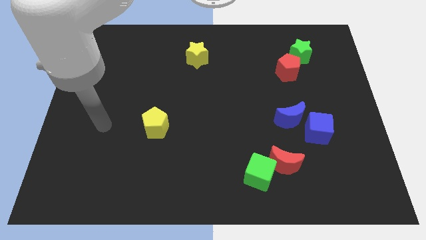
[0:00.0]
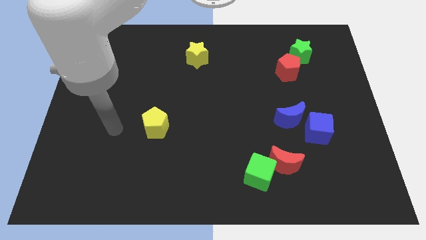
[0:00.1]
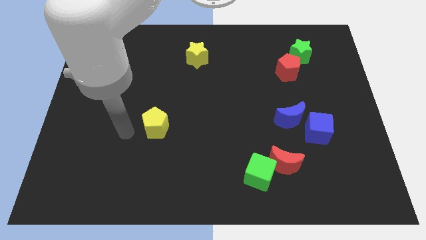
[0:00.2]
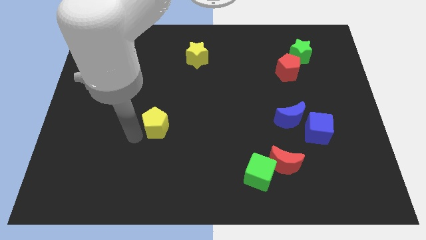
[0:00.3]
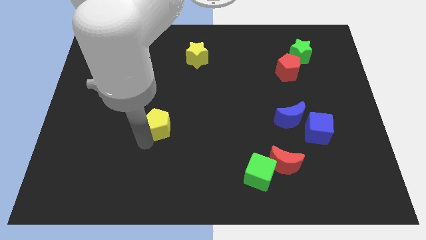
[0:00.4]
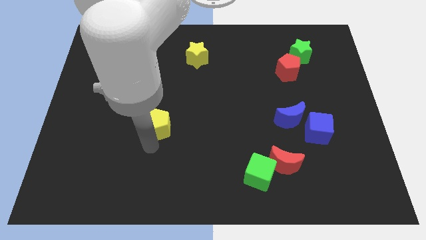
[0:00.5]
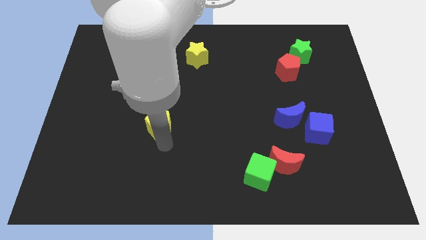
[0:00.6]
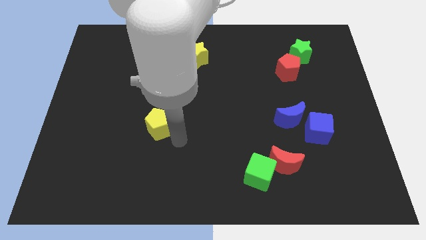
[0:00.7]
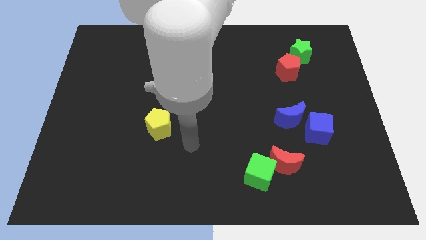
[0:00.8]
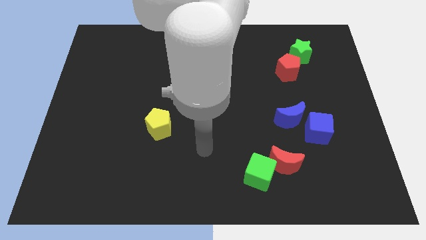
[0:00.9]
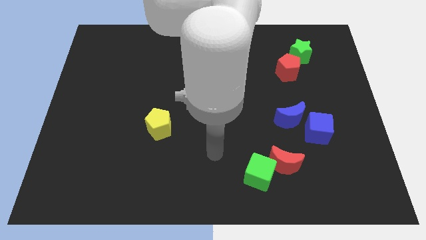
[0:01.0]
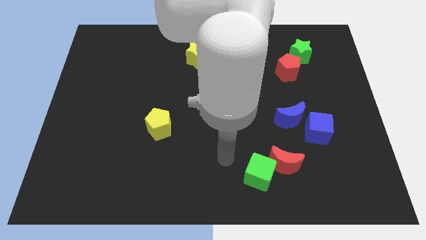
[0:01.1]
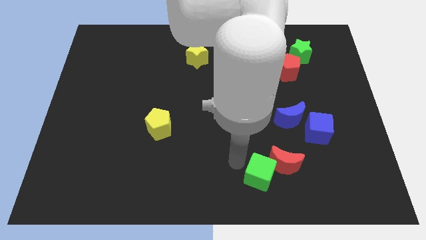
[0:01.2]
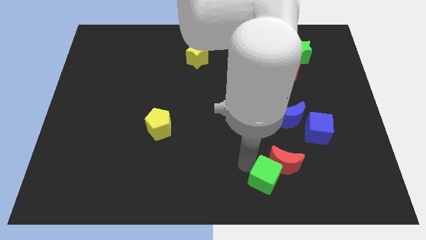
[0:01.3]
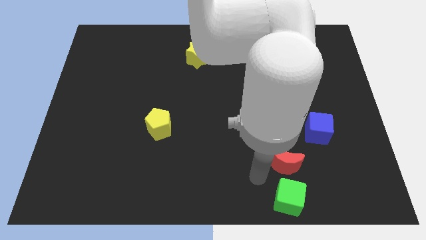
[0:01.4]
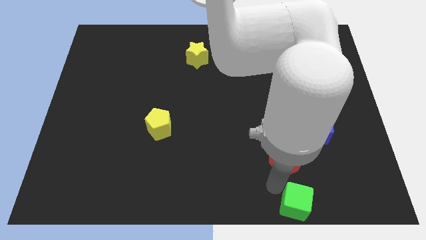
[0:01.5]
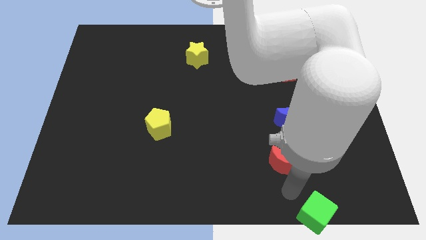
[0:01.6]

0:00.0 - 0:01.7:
separate the red moon from the green cube

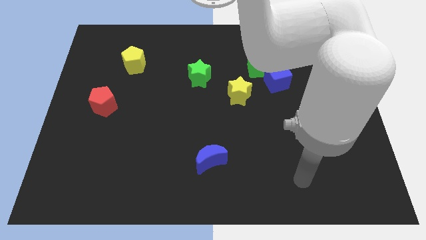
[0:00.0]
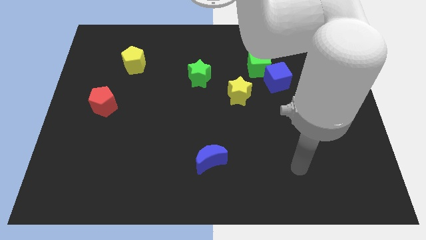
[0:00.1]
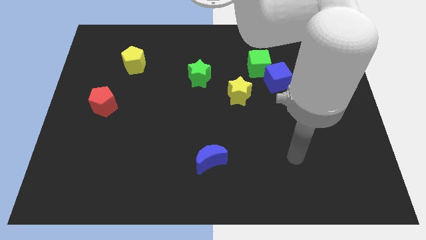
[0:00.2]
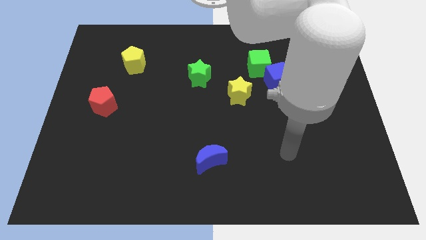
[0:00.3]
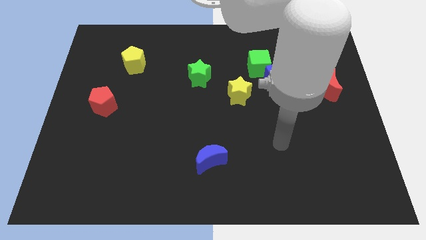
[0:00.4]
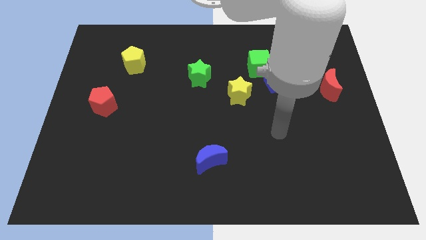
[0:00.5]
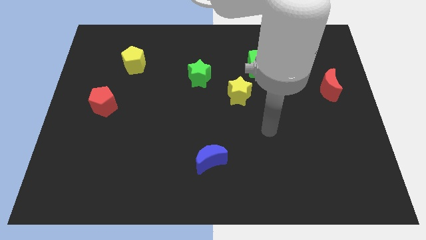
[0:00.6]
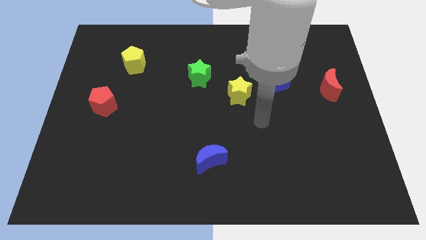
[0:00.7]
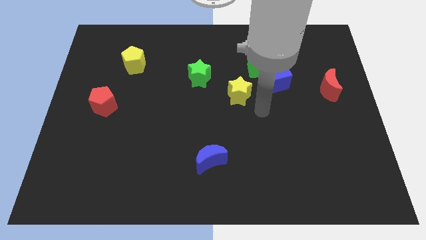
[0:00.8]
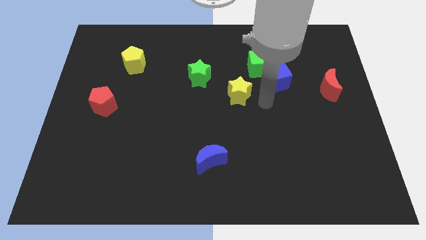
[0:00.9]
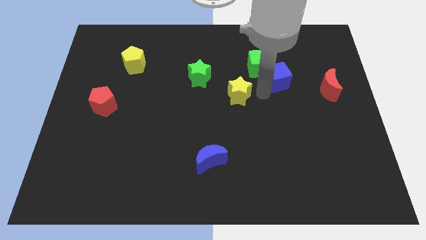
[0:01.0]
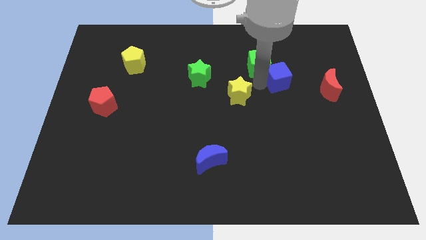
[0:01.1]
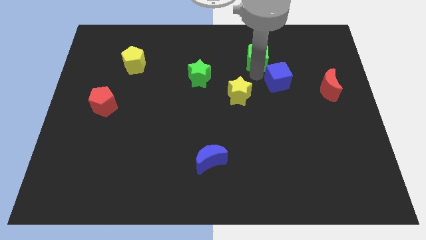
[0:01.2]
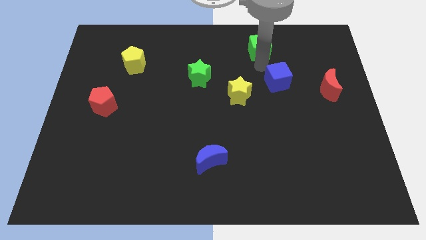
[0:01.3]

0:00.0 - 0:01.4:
move the blue cube away from the green cube

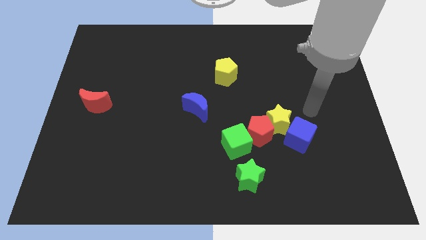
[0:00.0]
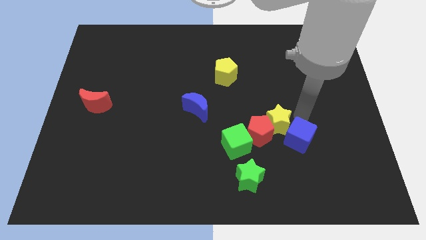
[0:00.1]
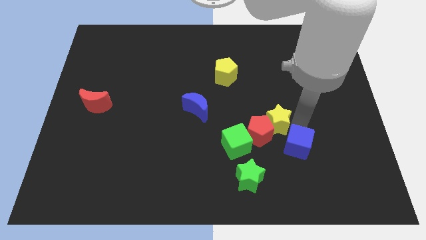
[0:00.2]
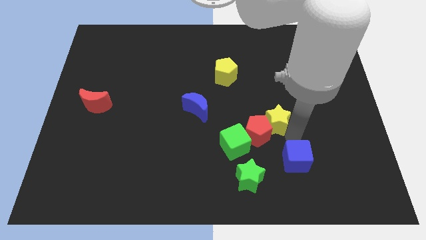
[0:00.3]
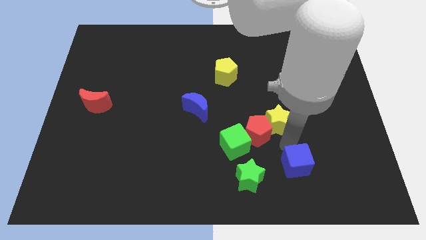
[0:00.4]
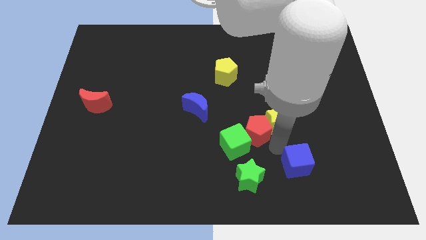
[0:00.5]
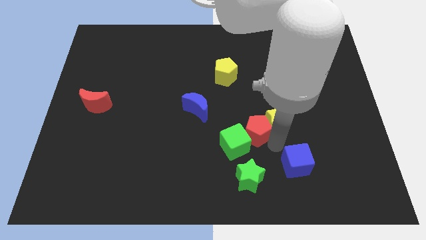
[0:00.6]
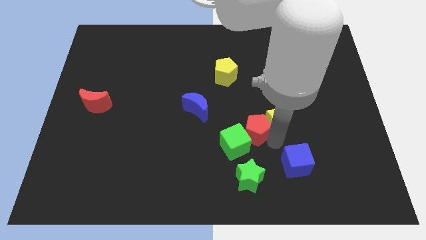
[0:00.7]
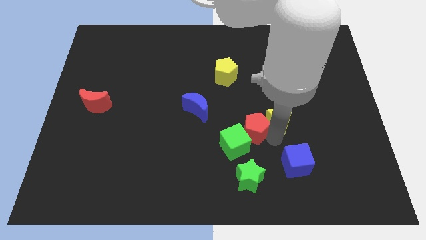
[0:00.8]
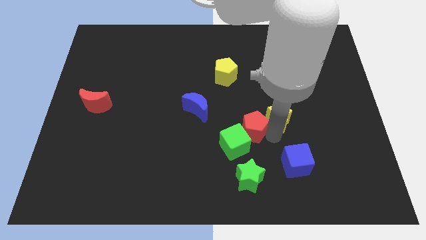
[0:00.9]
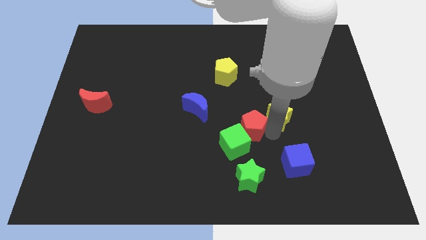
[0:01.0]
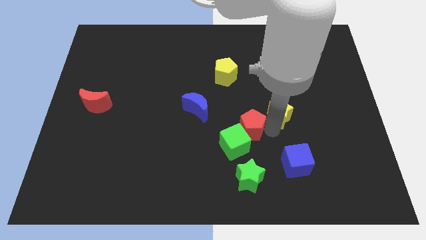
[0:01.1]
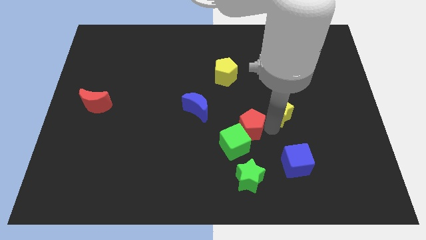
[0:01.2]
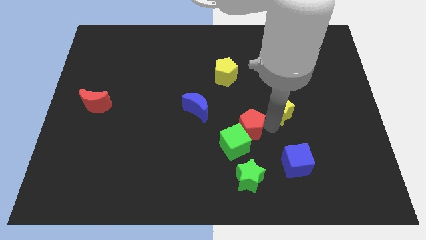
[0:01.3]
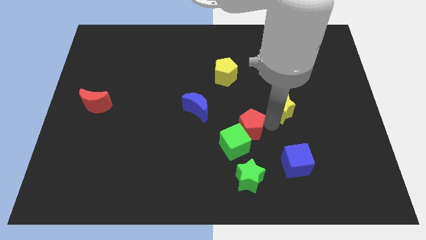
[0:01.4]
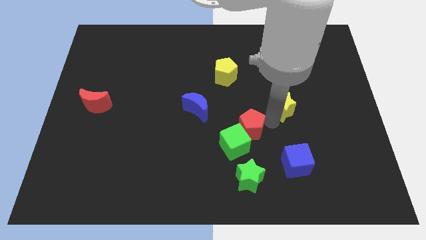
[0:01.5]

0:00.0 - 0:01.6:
move the yellow star away from the red pentagon and blue cube

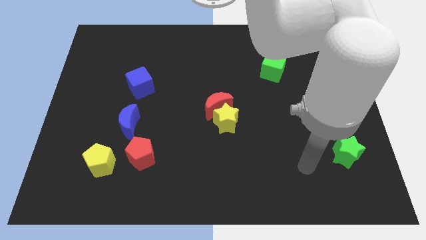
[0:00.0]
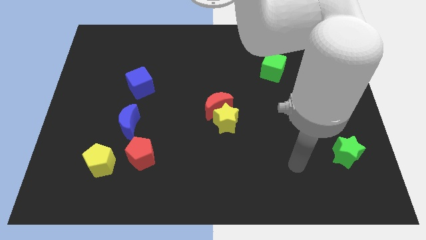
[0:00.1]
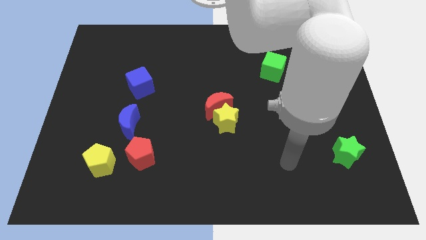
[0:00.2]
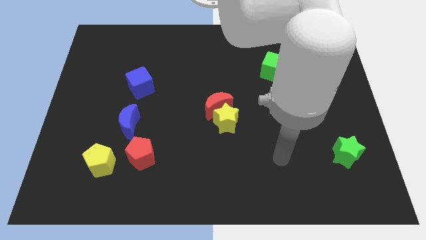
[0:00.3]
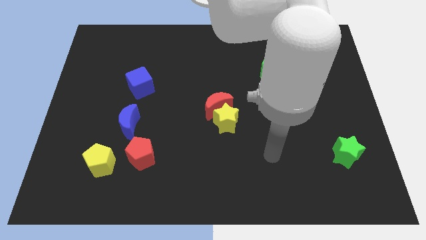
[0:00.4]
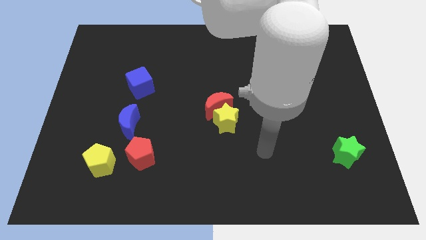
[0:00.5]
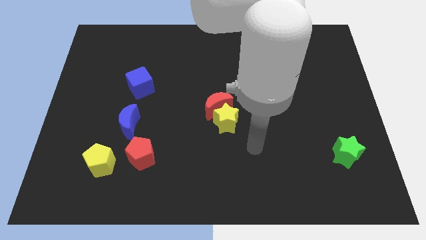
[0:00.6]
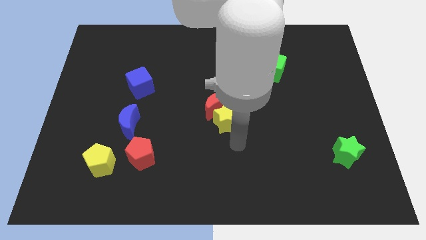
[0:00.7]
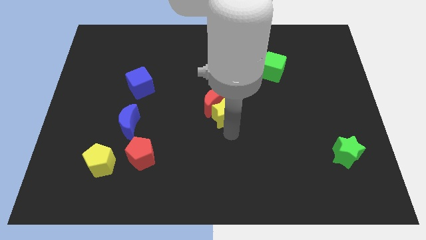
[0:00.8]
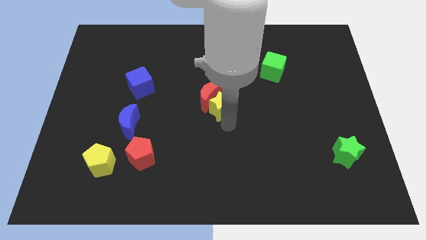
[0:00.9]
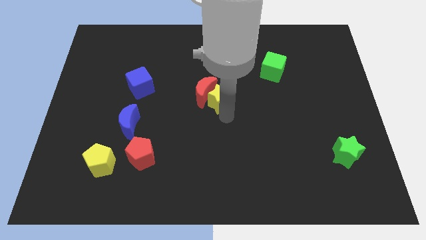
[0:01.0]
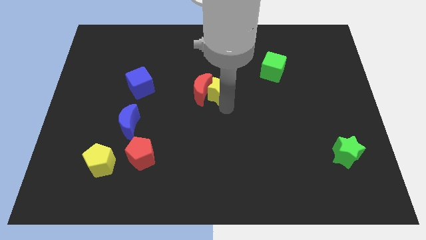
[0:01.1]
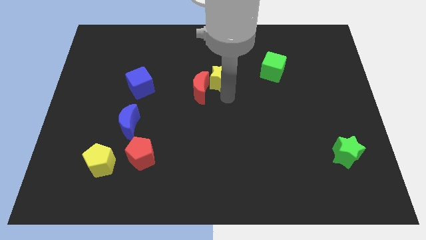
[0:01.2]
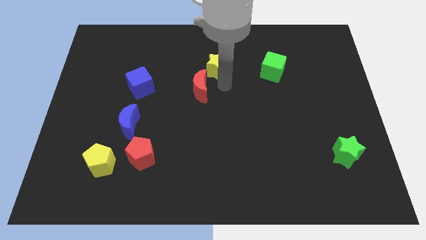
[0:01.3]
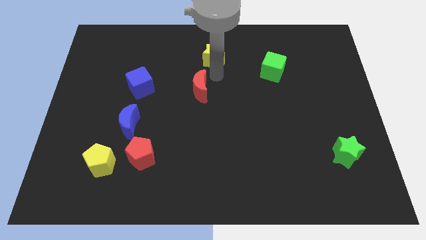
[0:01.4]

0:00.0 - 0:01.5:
pull the red moon apart from the yellow star

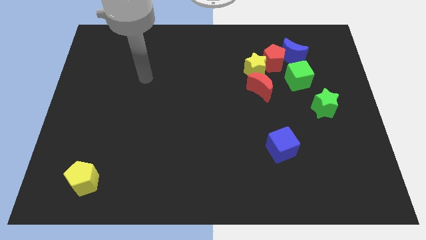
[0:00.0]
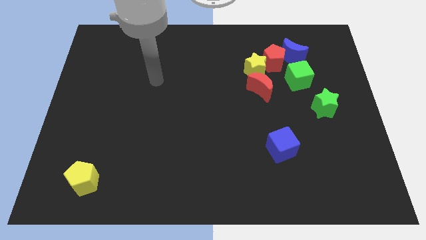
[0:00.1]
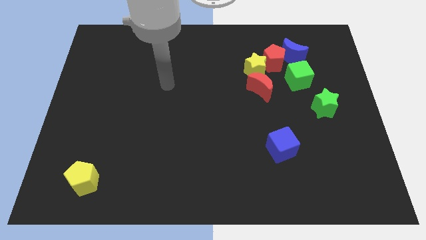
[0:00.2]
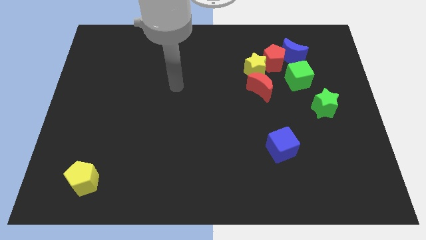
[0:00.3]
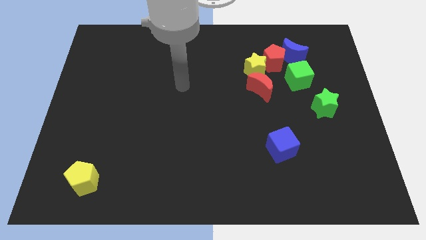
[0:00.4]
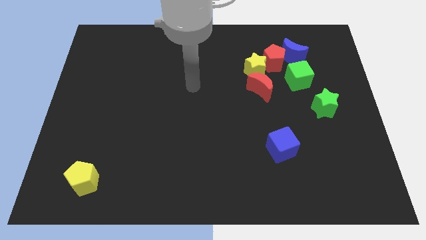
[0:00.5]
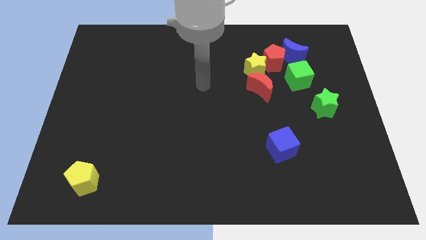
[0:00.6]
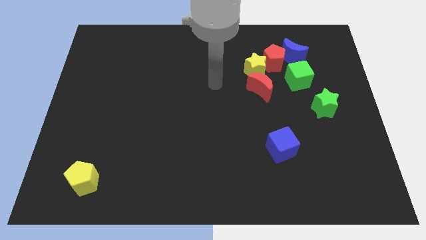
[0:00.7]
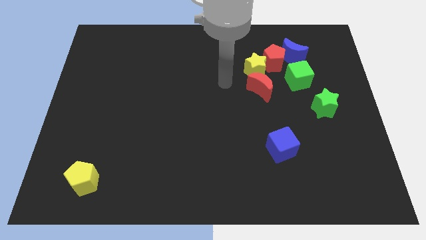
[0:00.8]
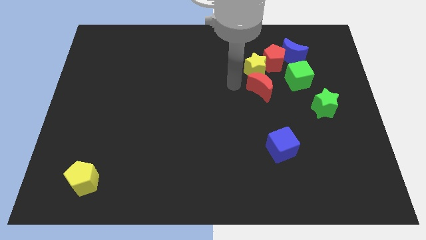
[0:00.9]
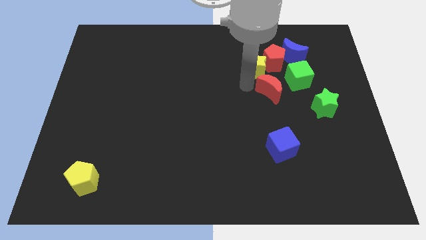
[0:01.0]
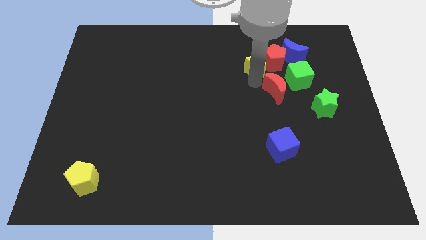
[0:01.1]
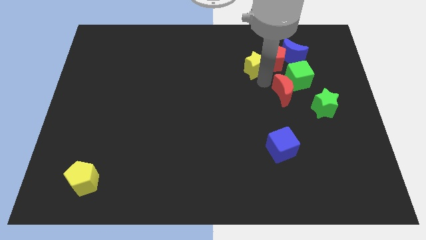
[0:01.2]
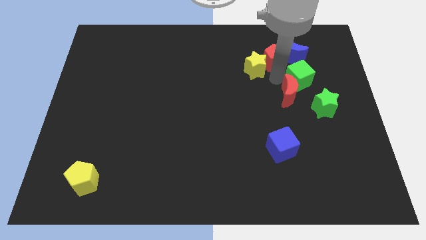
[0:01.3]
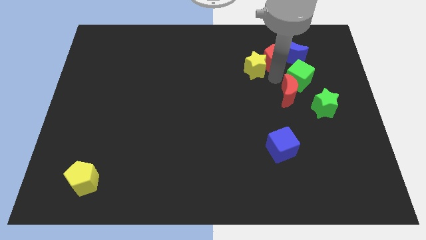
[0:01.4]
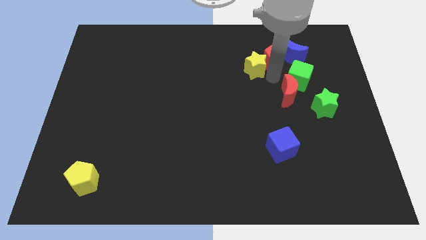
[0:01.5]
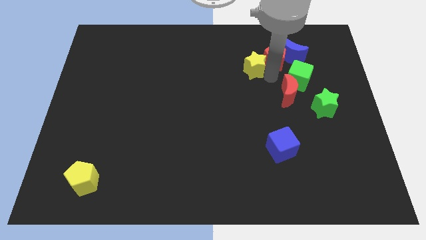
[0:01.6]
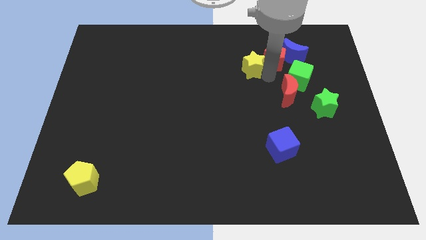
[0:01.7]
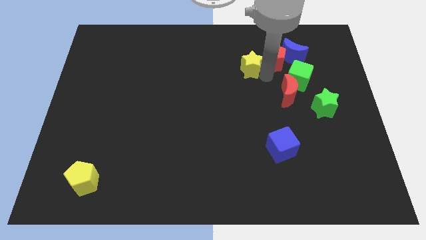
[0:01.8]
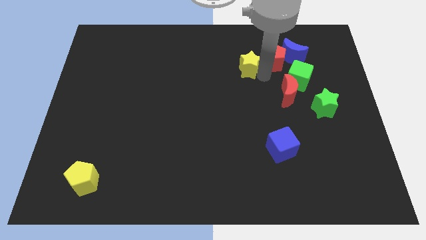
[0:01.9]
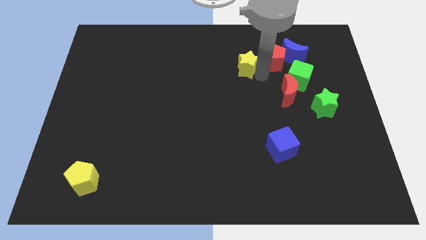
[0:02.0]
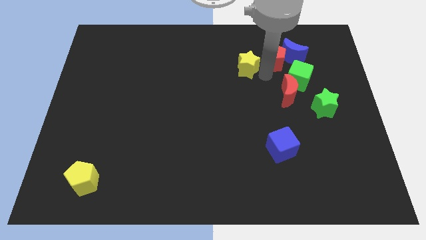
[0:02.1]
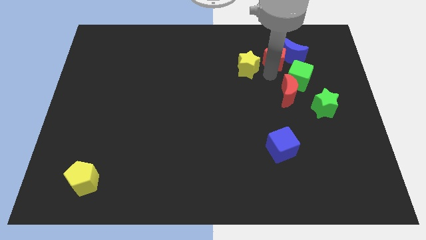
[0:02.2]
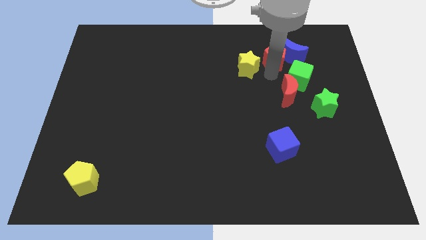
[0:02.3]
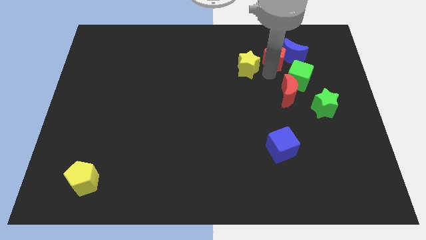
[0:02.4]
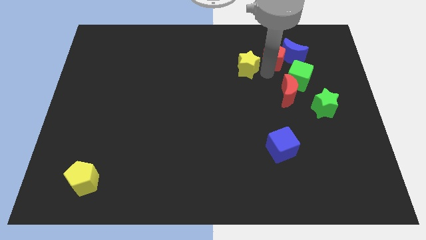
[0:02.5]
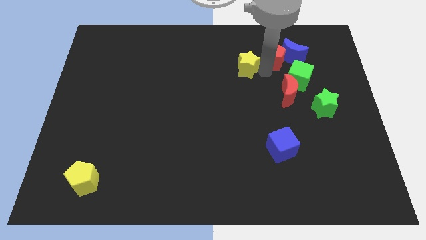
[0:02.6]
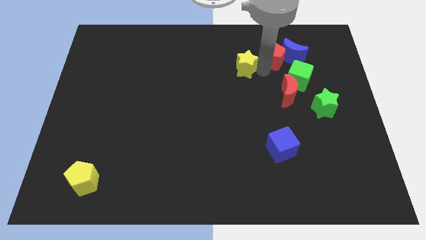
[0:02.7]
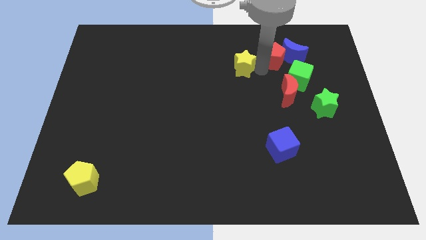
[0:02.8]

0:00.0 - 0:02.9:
separate the yellow star from the red pentagon and red moon

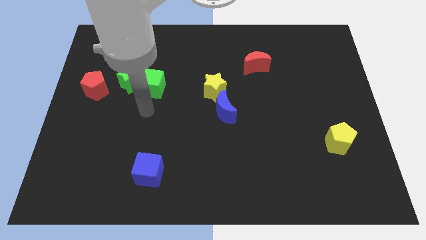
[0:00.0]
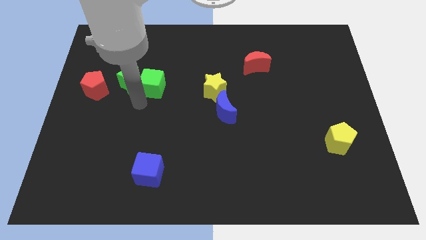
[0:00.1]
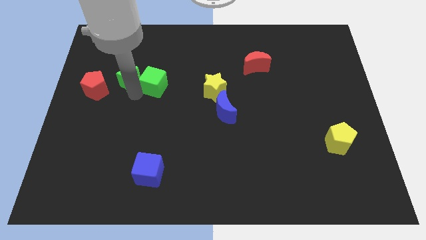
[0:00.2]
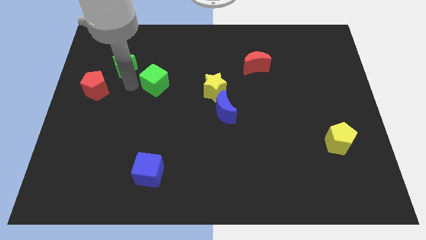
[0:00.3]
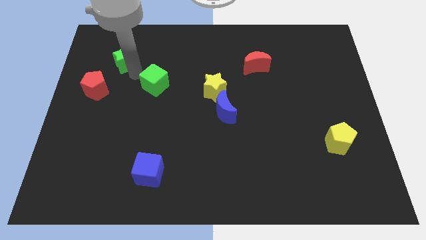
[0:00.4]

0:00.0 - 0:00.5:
separate the green cube from the green star
